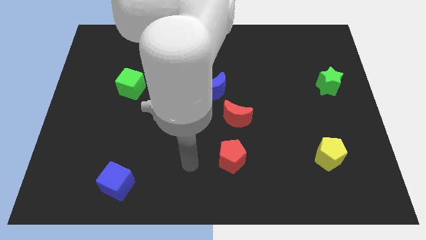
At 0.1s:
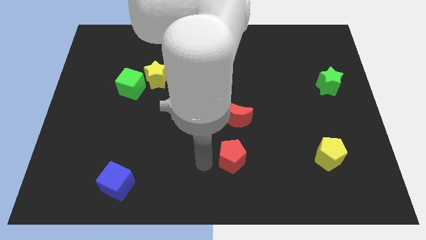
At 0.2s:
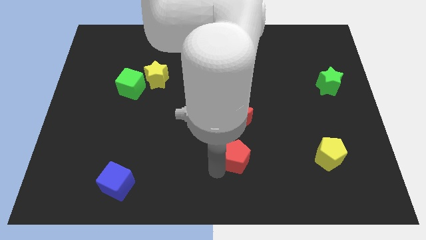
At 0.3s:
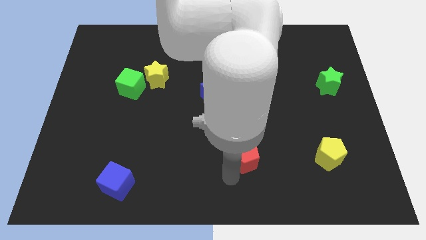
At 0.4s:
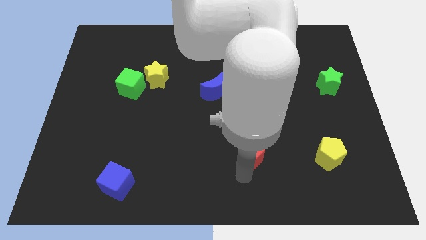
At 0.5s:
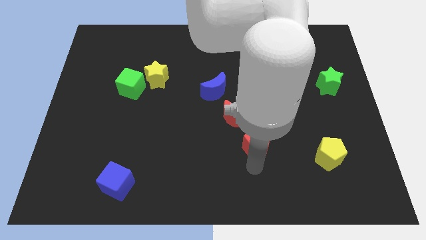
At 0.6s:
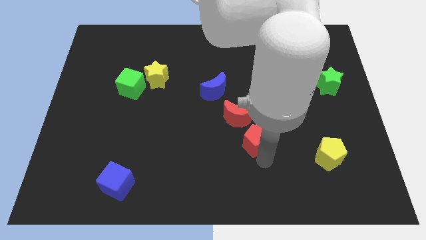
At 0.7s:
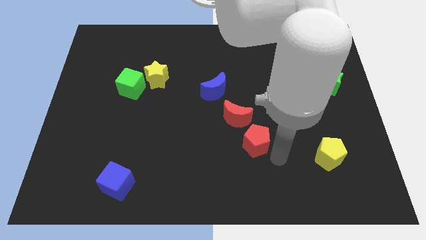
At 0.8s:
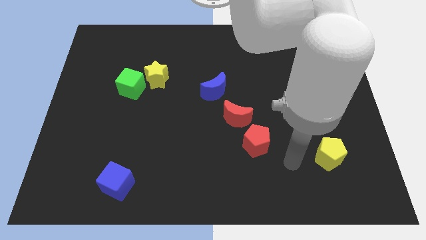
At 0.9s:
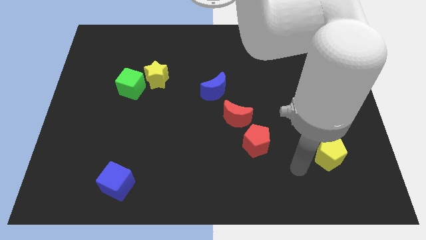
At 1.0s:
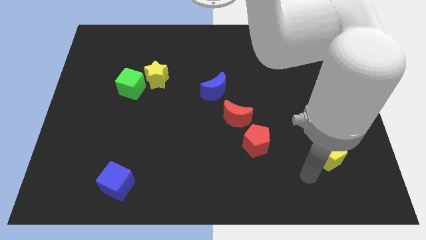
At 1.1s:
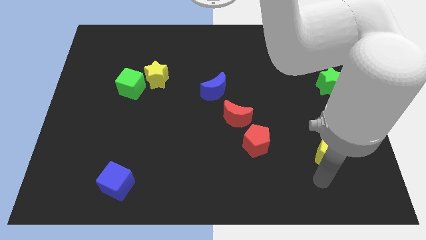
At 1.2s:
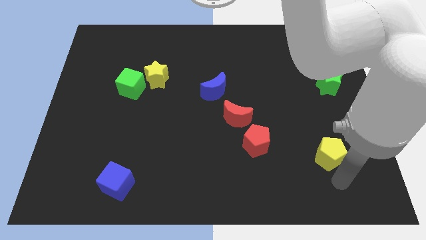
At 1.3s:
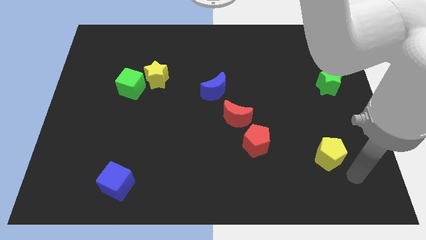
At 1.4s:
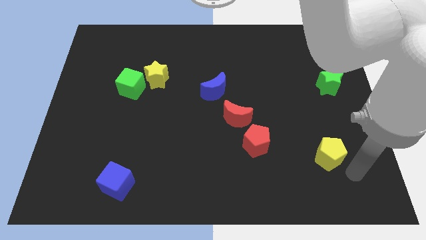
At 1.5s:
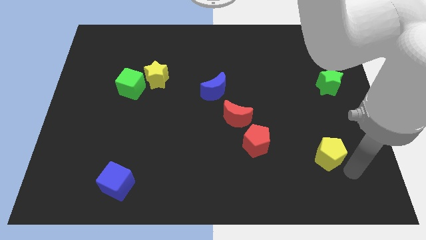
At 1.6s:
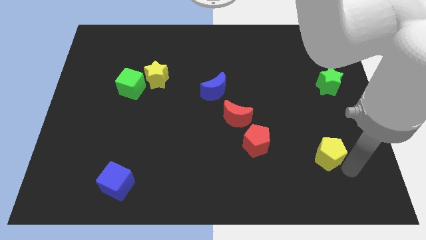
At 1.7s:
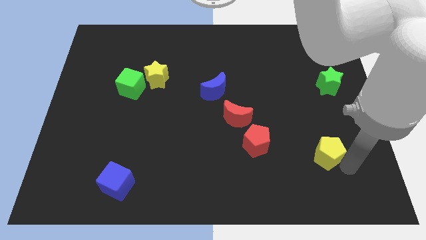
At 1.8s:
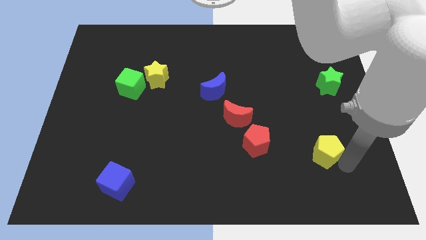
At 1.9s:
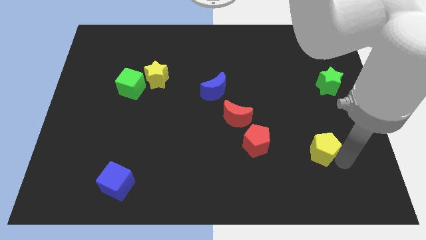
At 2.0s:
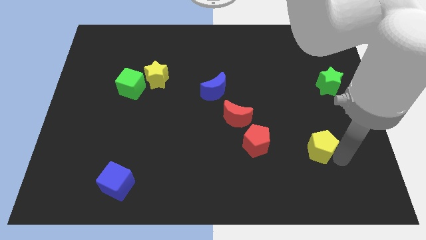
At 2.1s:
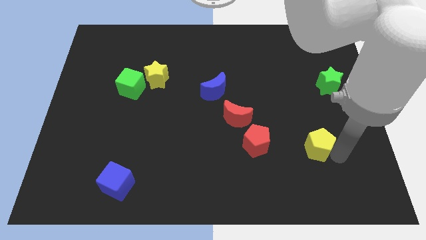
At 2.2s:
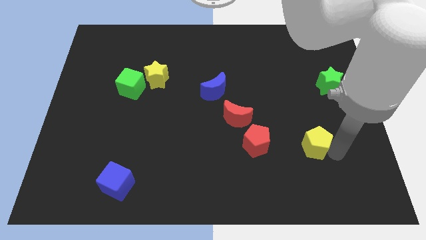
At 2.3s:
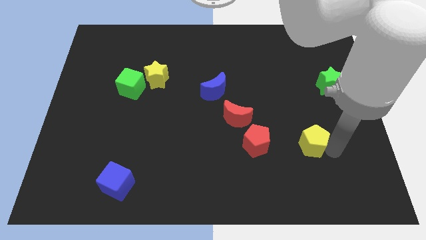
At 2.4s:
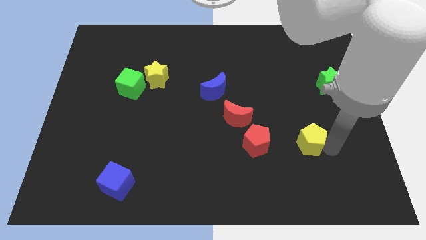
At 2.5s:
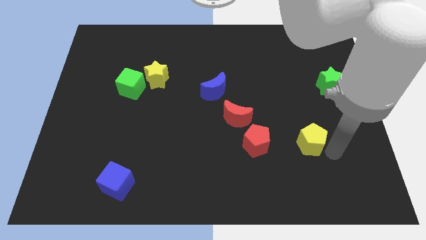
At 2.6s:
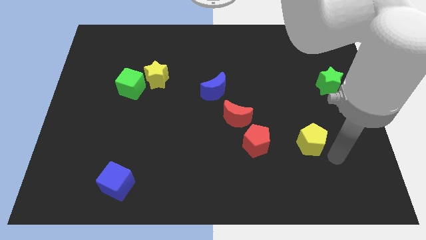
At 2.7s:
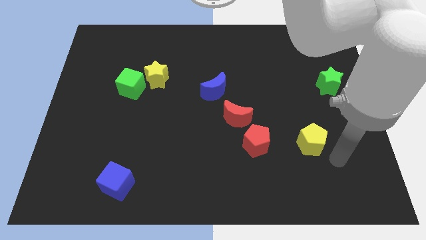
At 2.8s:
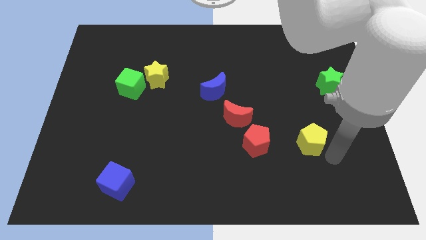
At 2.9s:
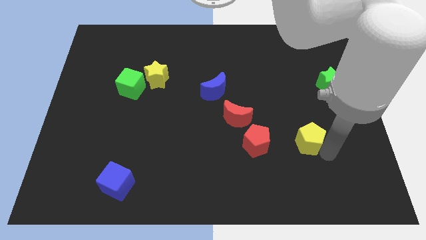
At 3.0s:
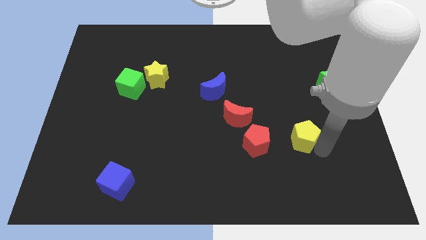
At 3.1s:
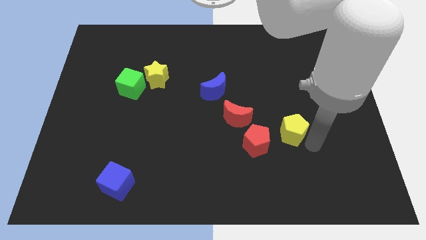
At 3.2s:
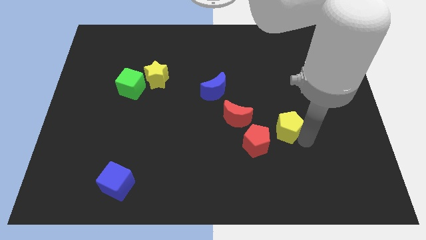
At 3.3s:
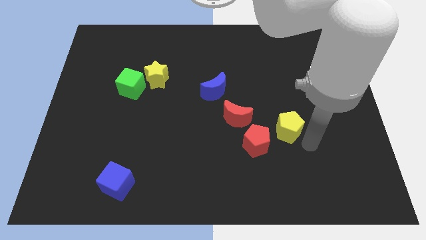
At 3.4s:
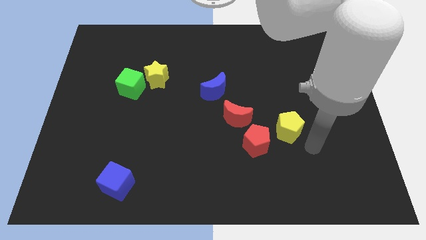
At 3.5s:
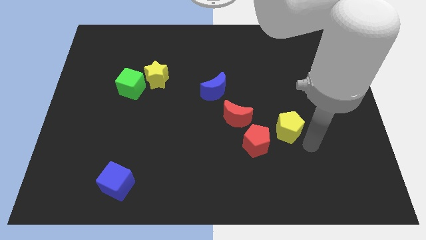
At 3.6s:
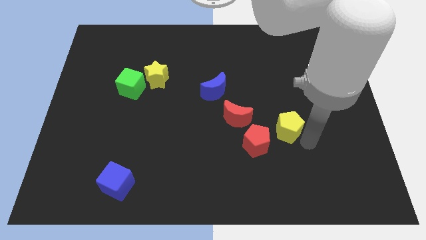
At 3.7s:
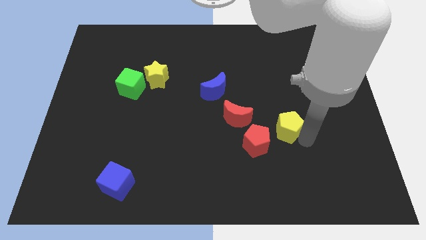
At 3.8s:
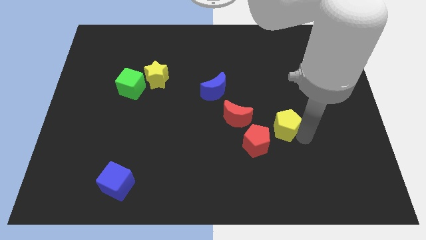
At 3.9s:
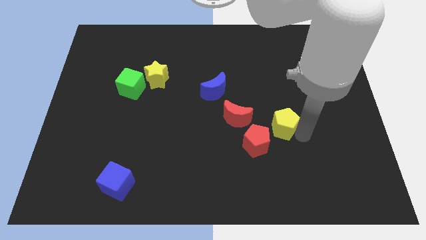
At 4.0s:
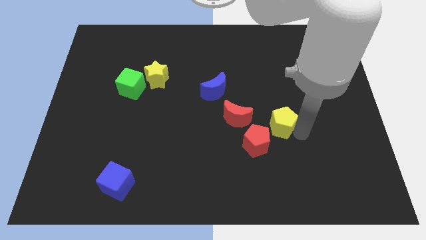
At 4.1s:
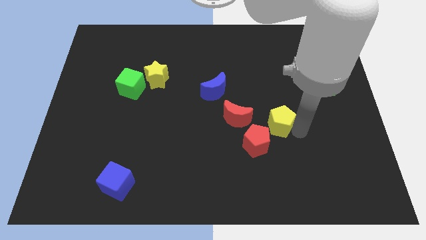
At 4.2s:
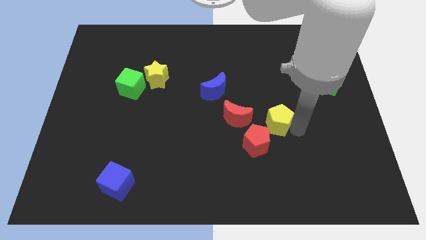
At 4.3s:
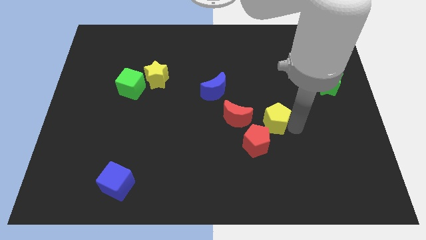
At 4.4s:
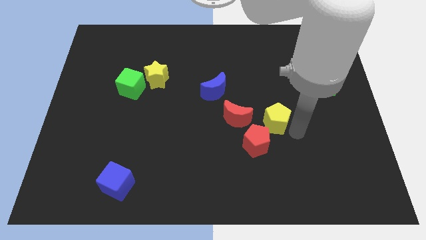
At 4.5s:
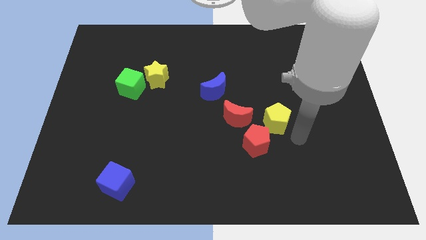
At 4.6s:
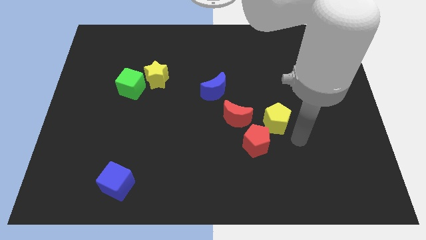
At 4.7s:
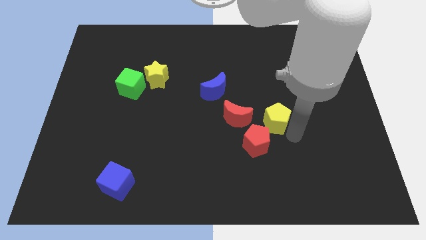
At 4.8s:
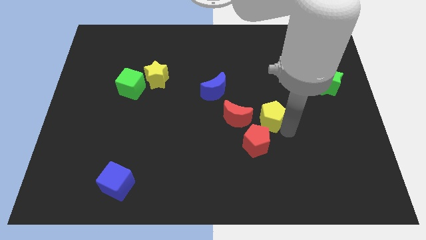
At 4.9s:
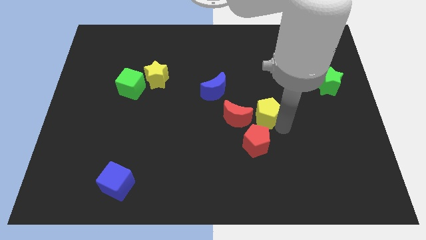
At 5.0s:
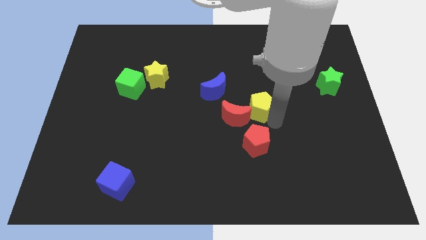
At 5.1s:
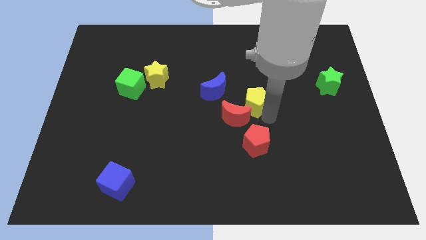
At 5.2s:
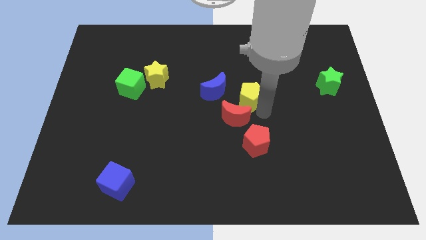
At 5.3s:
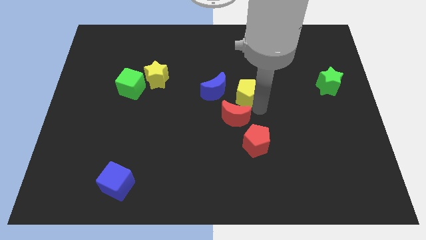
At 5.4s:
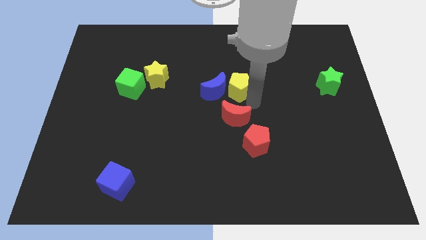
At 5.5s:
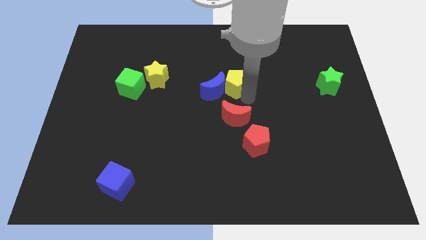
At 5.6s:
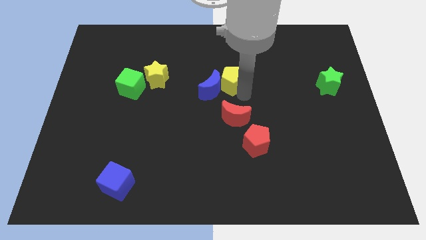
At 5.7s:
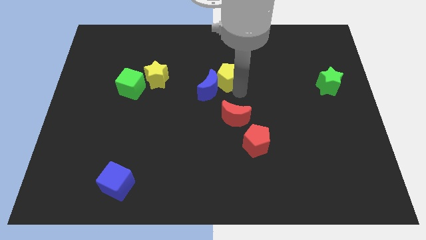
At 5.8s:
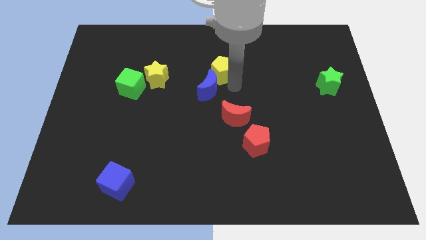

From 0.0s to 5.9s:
move the yellow pentagon above the blue moon

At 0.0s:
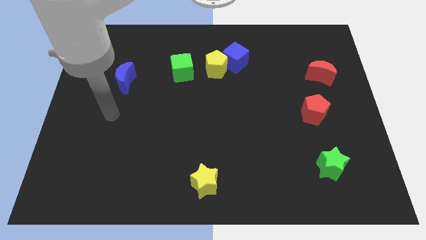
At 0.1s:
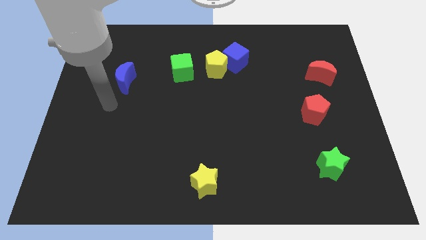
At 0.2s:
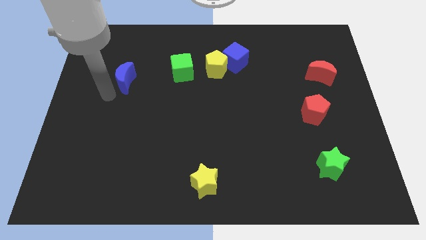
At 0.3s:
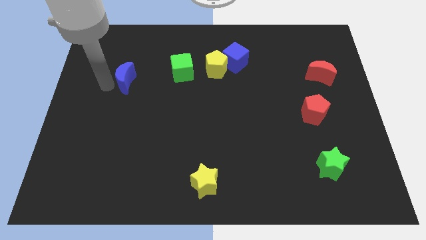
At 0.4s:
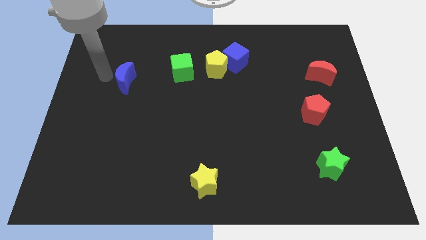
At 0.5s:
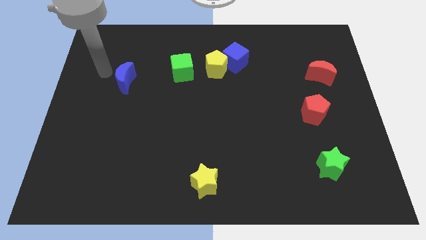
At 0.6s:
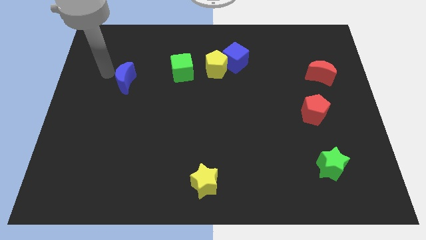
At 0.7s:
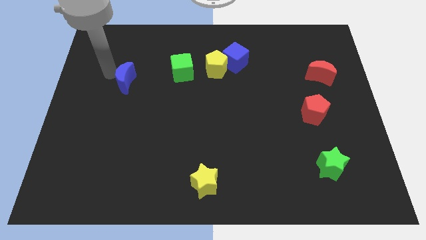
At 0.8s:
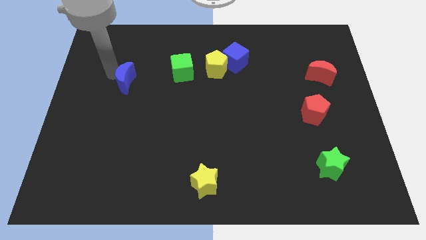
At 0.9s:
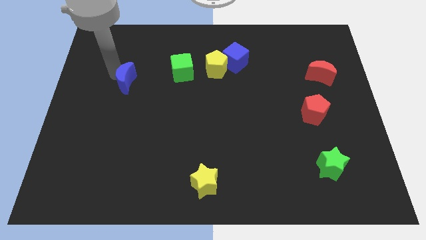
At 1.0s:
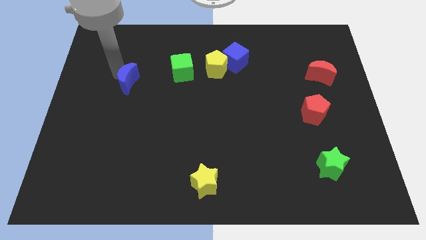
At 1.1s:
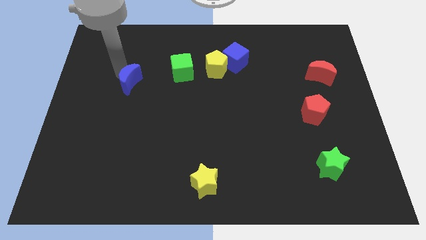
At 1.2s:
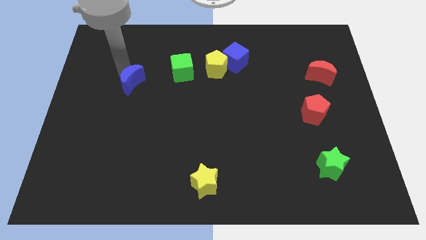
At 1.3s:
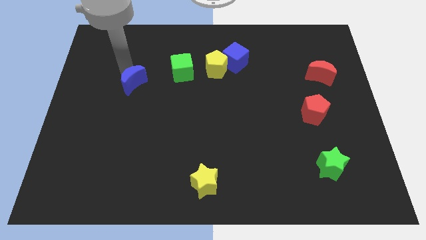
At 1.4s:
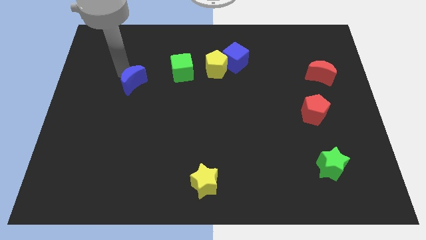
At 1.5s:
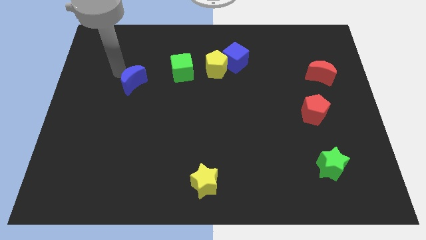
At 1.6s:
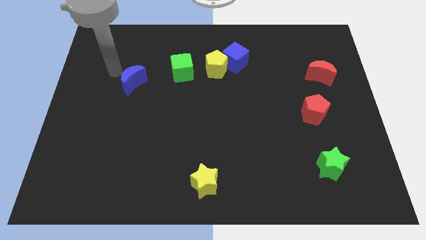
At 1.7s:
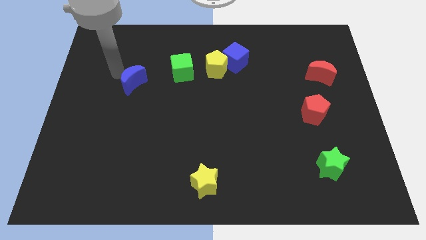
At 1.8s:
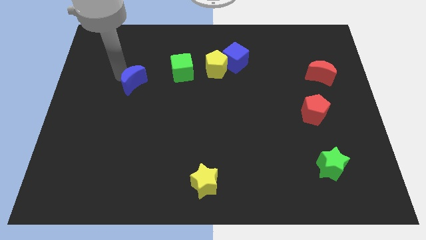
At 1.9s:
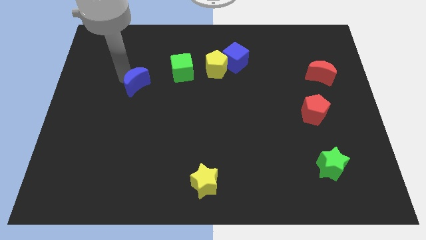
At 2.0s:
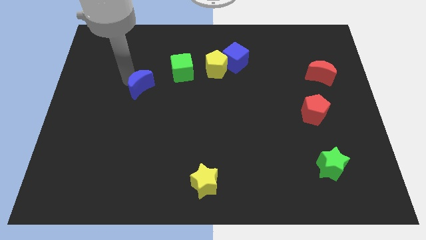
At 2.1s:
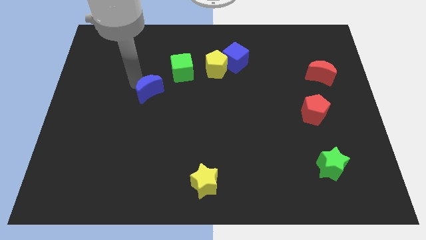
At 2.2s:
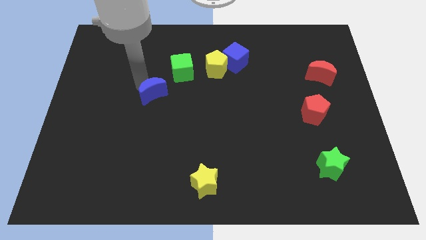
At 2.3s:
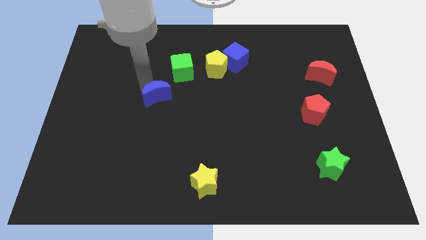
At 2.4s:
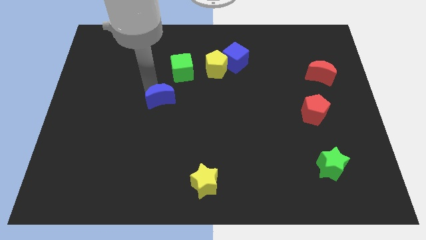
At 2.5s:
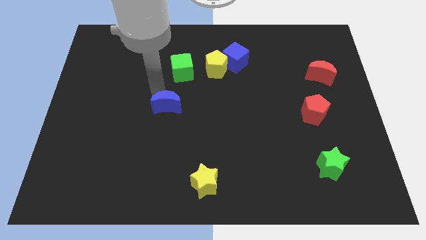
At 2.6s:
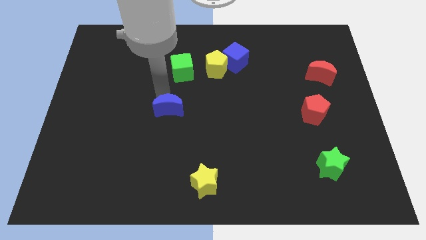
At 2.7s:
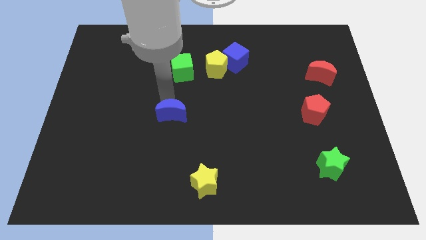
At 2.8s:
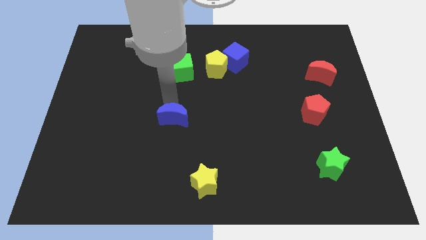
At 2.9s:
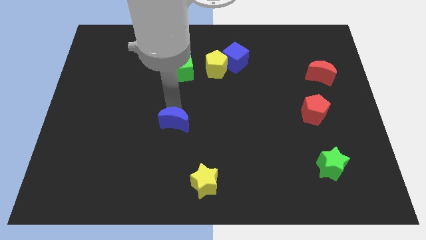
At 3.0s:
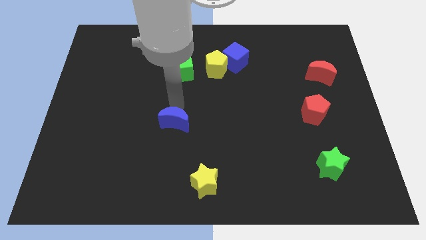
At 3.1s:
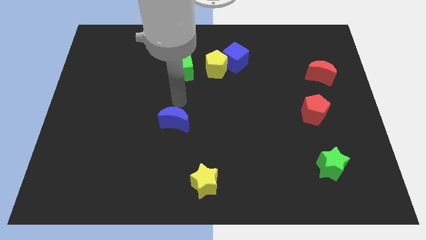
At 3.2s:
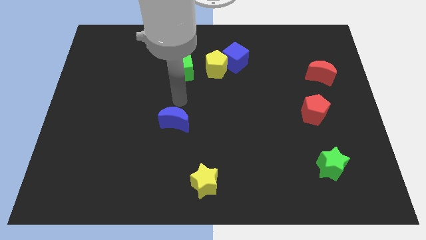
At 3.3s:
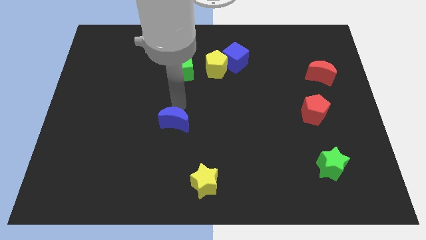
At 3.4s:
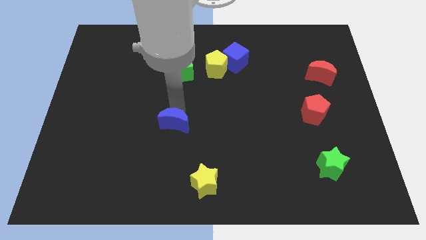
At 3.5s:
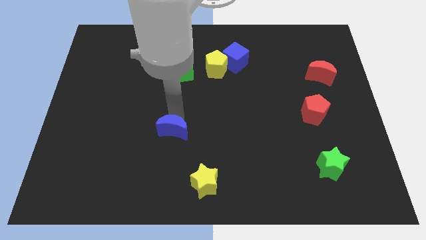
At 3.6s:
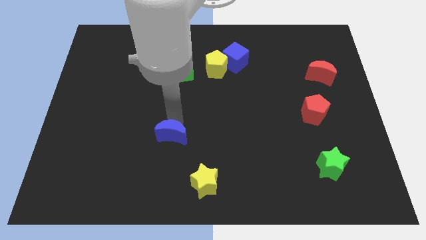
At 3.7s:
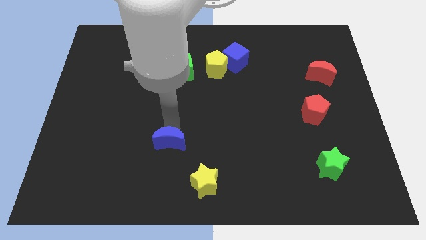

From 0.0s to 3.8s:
put the blue moon to the top left of the yellow star
